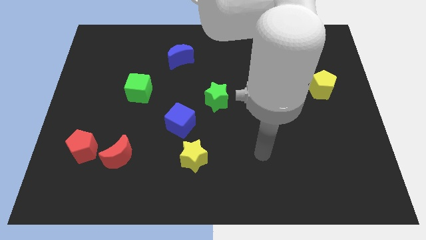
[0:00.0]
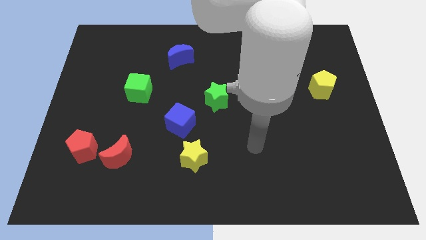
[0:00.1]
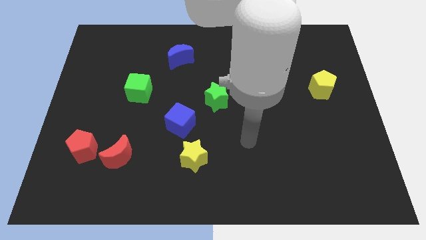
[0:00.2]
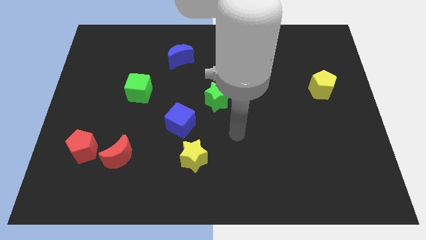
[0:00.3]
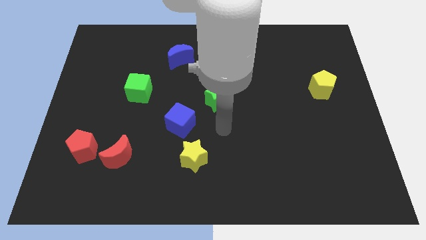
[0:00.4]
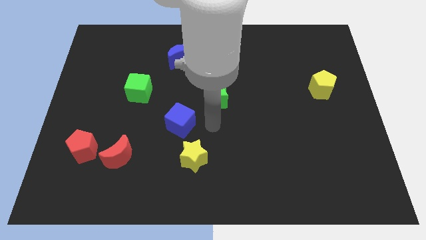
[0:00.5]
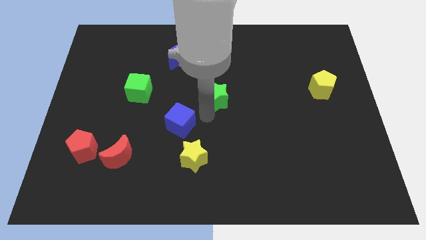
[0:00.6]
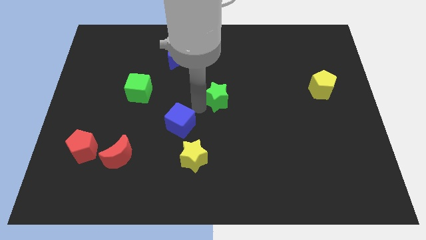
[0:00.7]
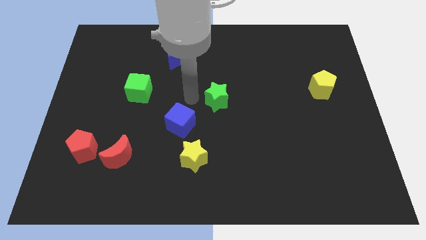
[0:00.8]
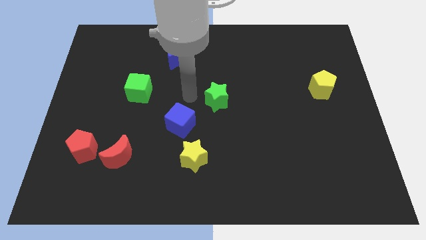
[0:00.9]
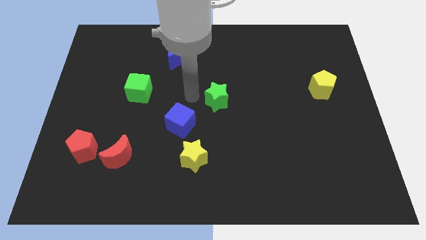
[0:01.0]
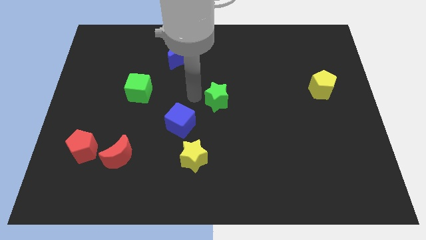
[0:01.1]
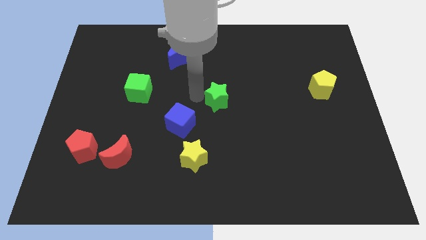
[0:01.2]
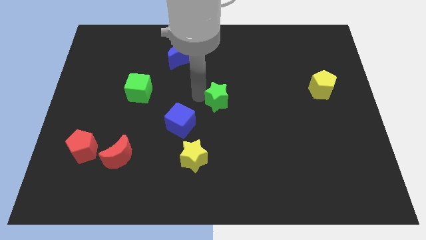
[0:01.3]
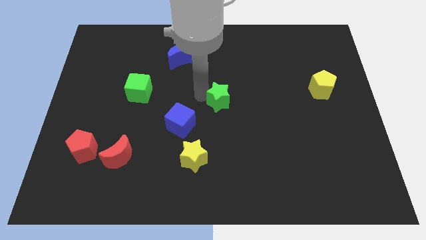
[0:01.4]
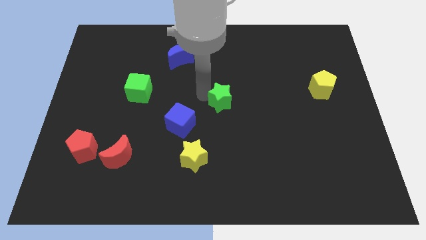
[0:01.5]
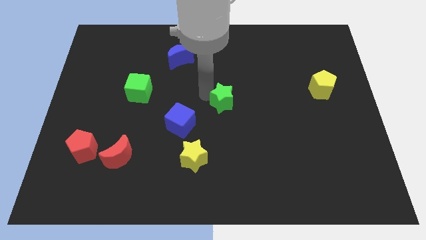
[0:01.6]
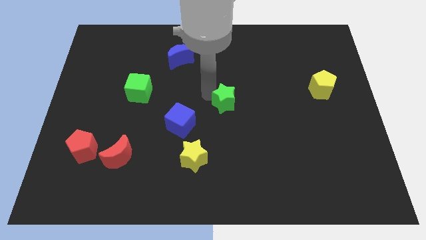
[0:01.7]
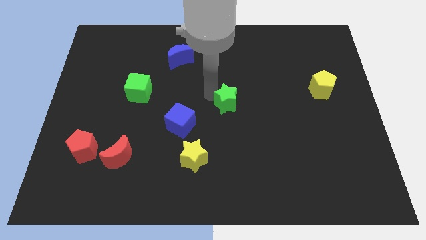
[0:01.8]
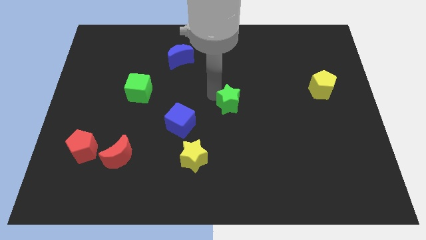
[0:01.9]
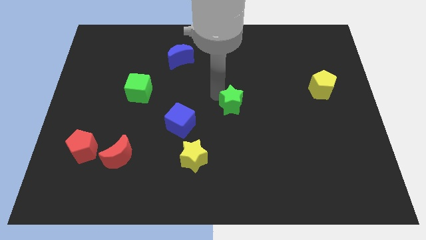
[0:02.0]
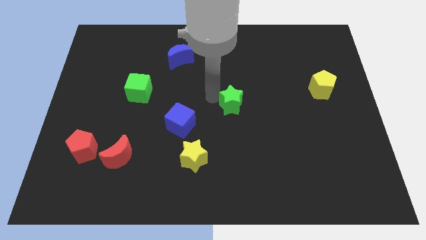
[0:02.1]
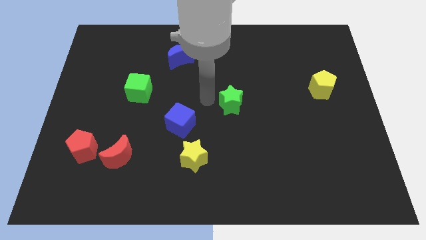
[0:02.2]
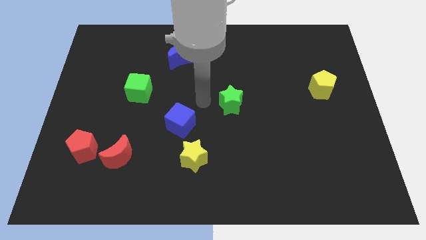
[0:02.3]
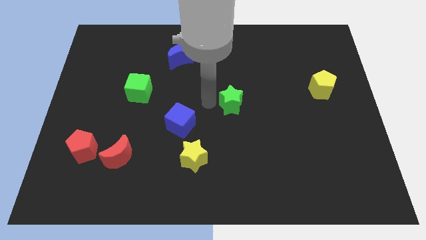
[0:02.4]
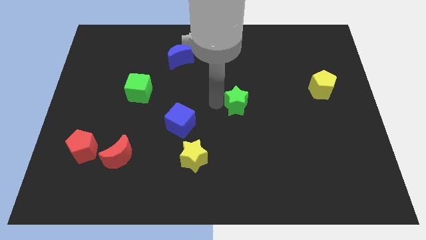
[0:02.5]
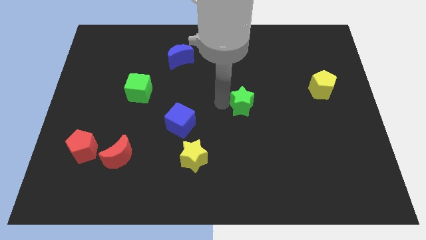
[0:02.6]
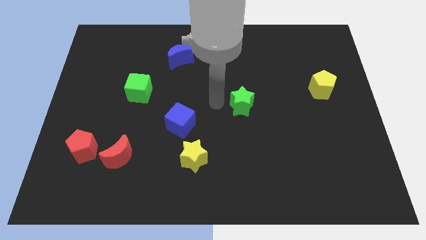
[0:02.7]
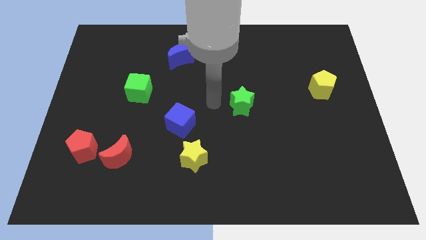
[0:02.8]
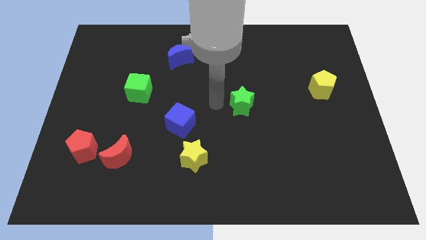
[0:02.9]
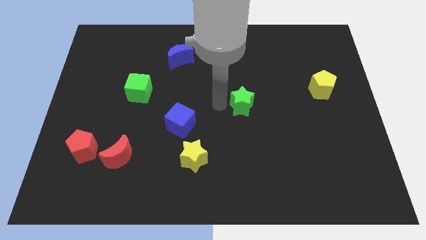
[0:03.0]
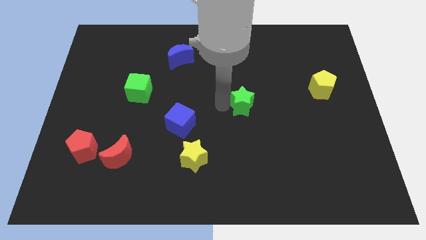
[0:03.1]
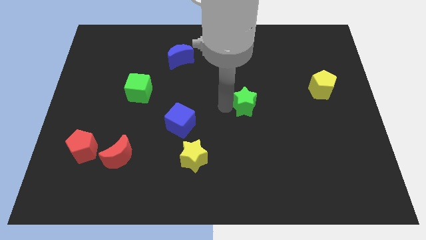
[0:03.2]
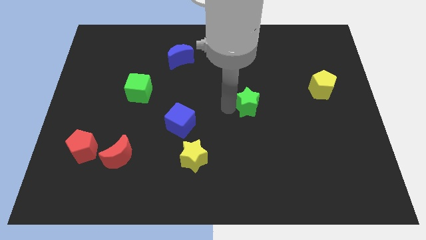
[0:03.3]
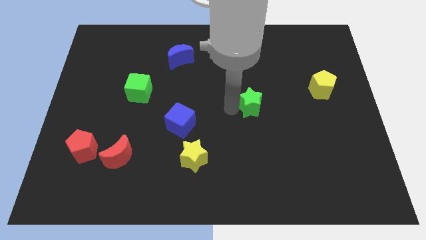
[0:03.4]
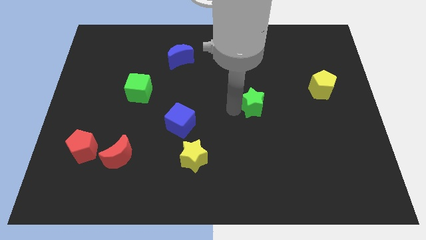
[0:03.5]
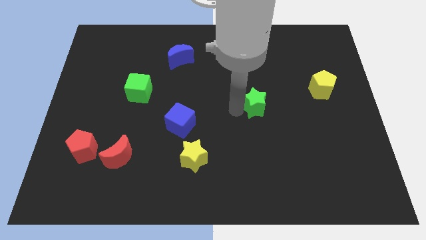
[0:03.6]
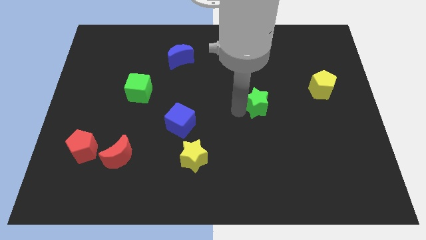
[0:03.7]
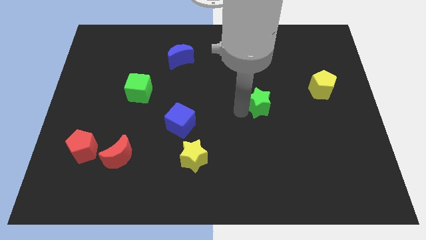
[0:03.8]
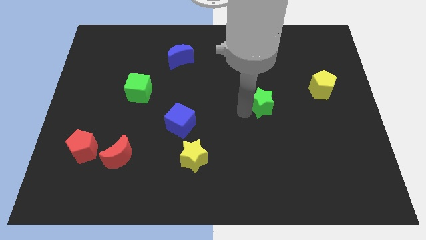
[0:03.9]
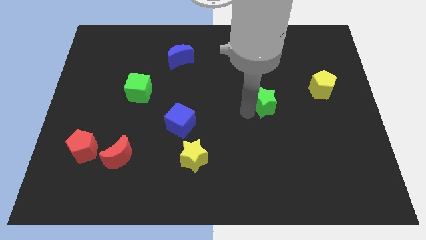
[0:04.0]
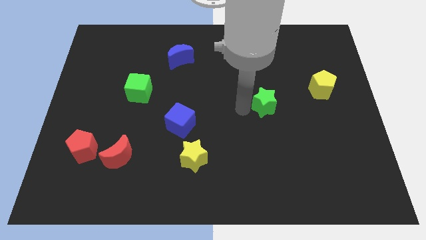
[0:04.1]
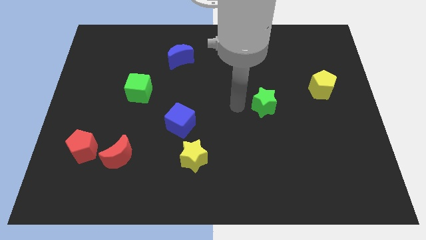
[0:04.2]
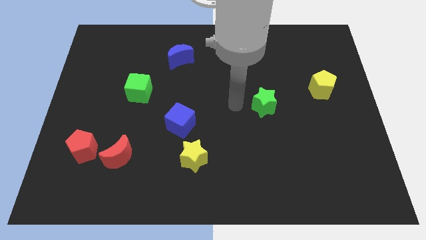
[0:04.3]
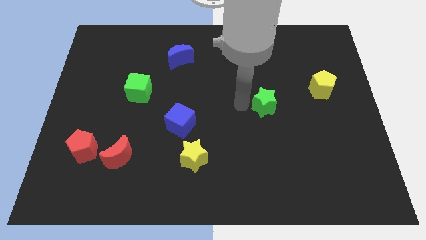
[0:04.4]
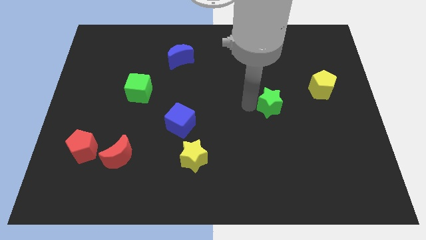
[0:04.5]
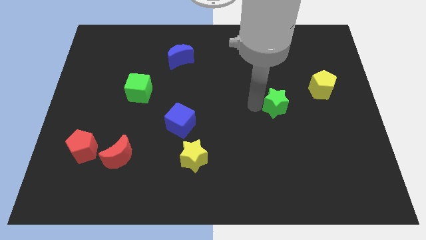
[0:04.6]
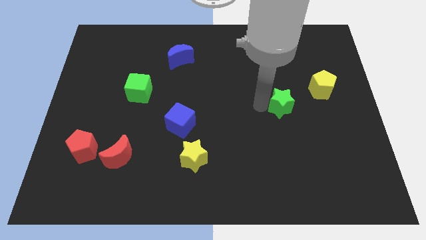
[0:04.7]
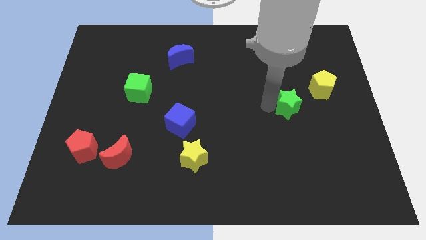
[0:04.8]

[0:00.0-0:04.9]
move the green star to the bottom left side of the yellow pentagon

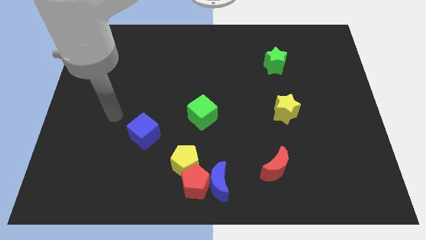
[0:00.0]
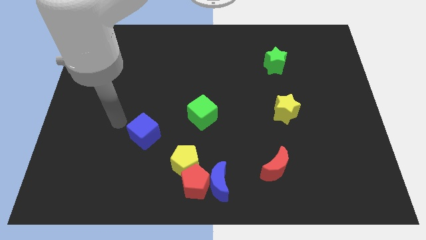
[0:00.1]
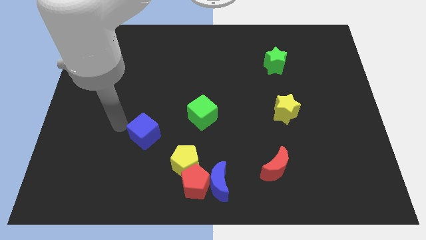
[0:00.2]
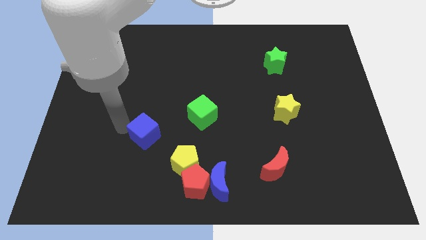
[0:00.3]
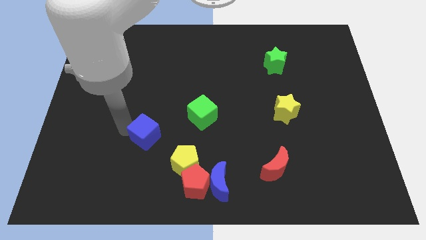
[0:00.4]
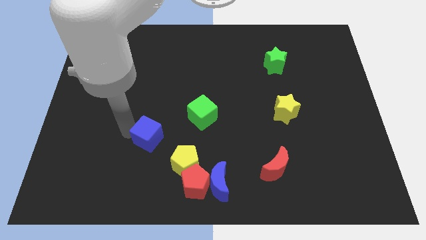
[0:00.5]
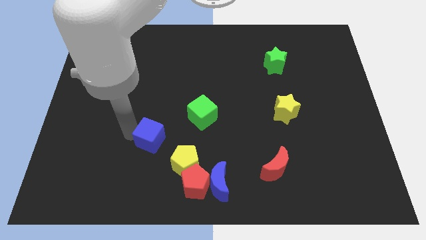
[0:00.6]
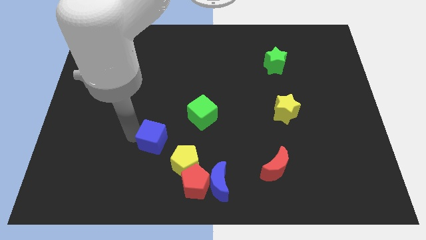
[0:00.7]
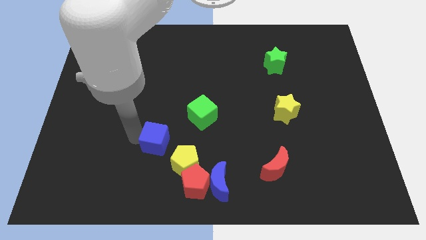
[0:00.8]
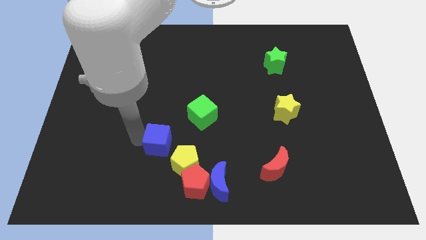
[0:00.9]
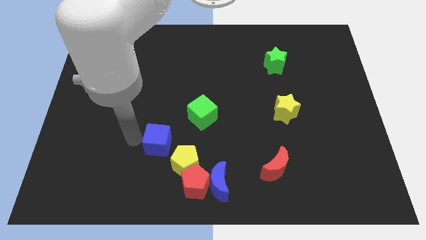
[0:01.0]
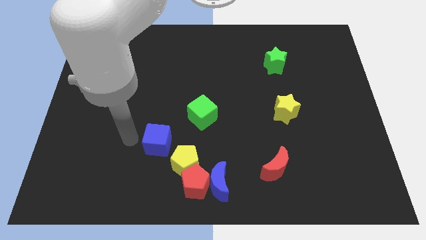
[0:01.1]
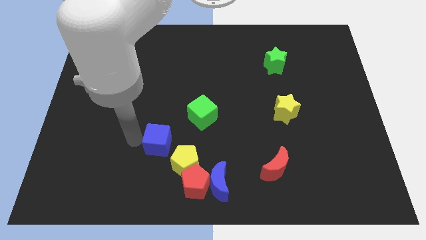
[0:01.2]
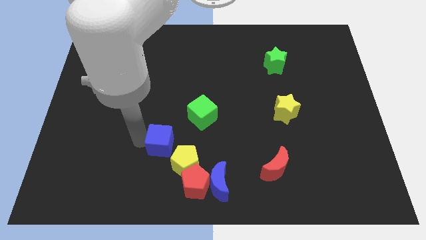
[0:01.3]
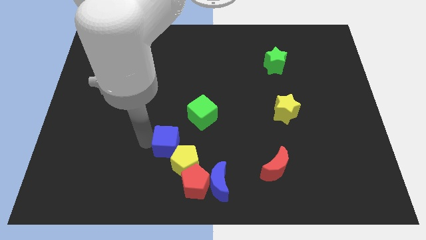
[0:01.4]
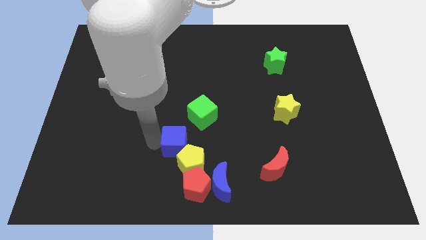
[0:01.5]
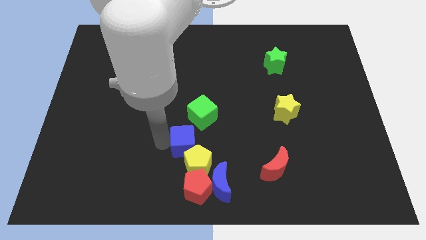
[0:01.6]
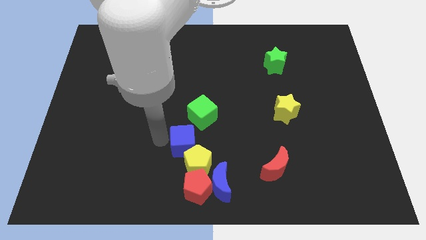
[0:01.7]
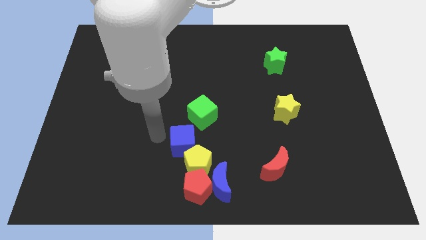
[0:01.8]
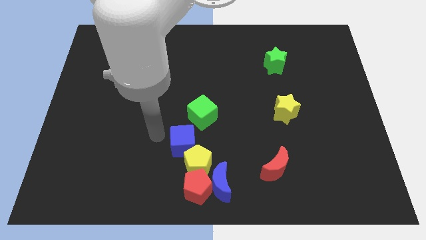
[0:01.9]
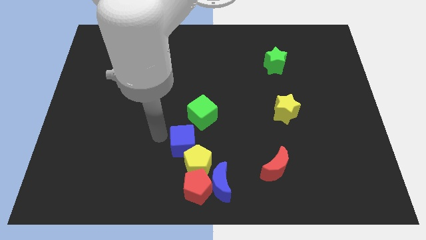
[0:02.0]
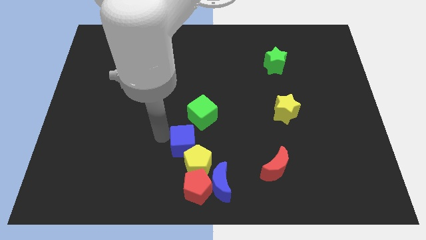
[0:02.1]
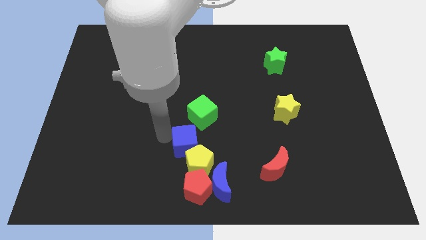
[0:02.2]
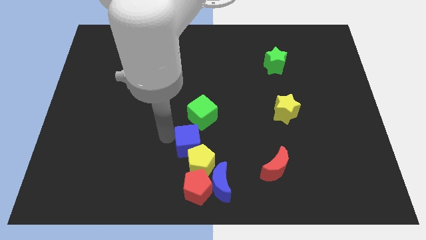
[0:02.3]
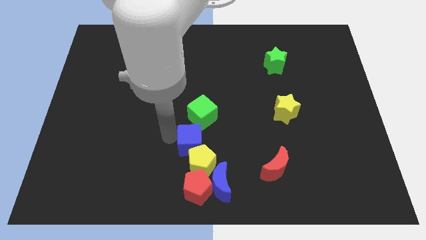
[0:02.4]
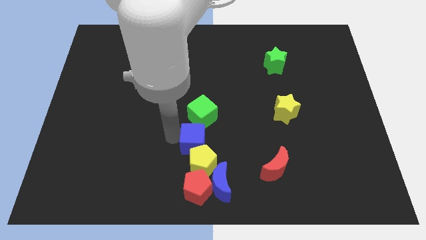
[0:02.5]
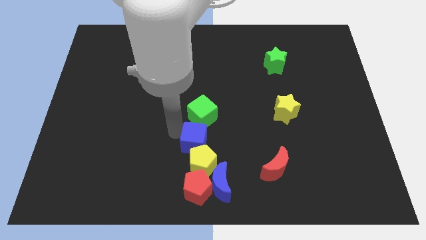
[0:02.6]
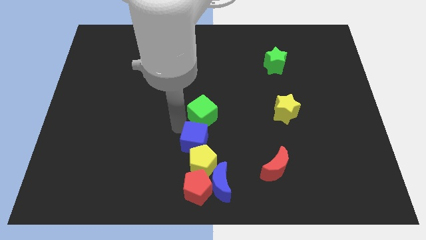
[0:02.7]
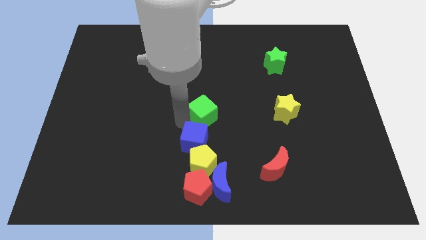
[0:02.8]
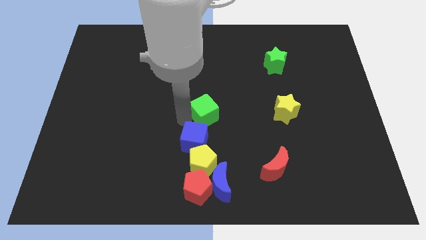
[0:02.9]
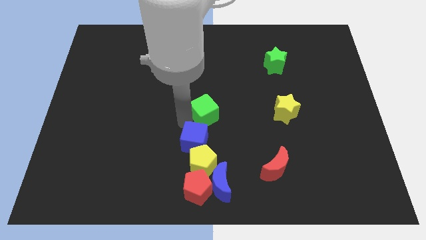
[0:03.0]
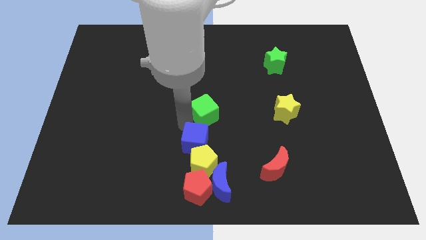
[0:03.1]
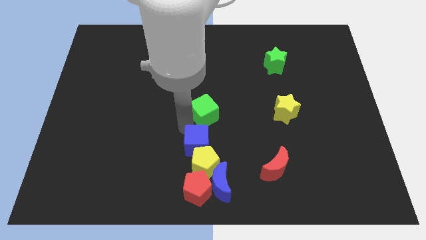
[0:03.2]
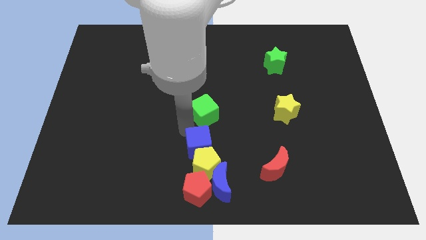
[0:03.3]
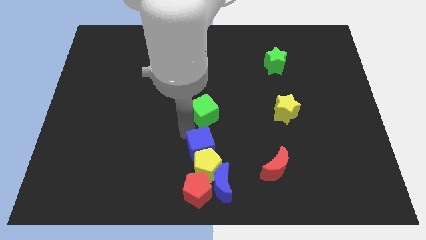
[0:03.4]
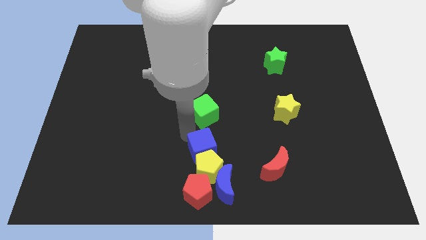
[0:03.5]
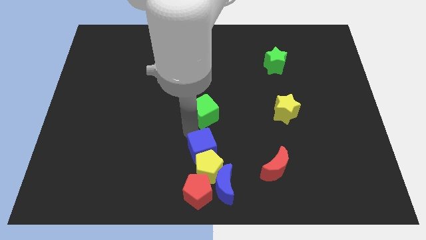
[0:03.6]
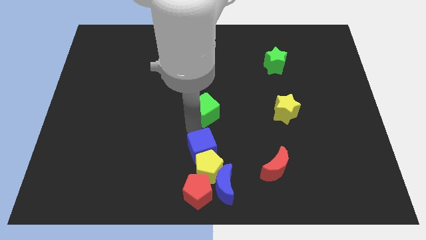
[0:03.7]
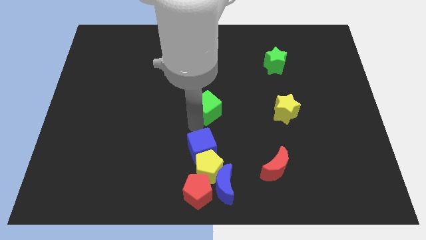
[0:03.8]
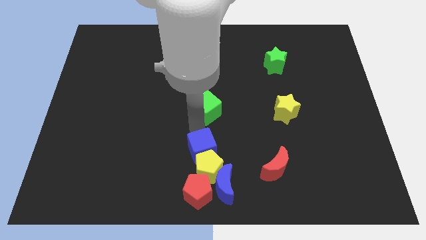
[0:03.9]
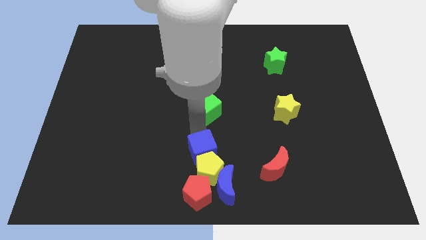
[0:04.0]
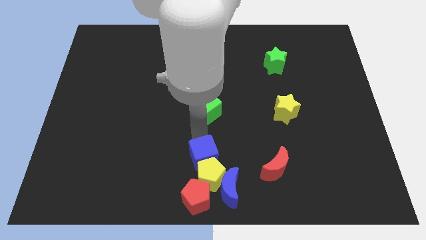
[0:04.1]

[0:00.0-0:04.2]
push the blue cube just left of the red moon
